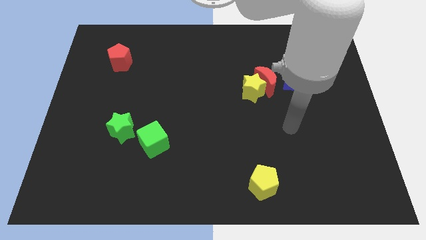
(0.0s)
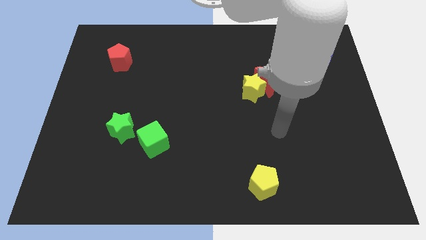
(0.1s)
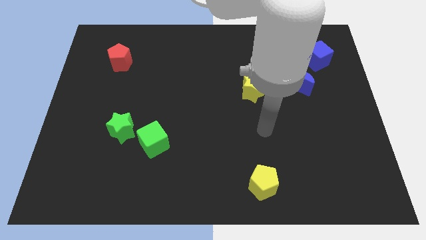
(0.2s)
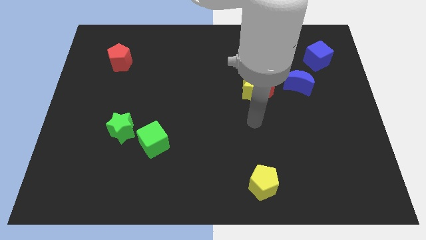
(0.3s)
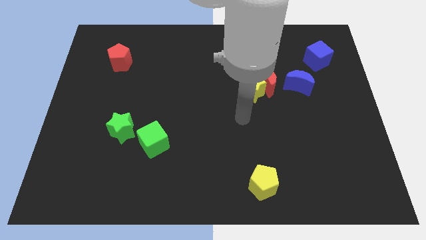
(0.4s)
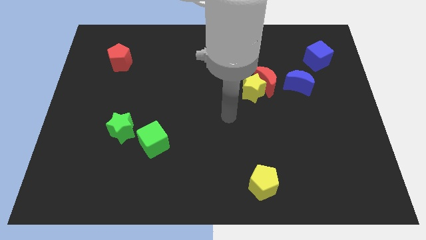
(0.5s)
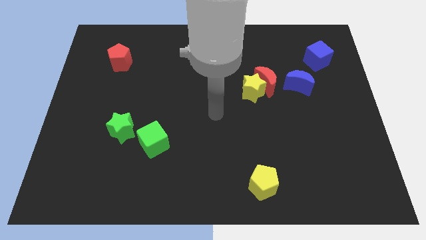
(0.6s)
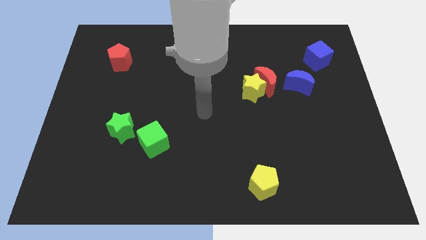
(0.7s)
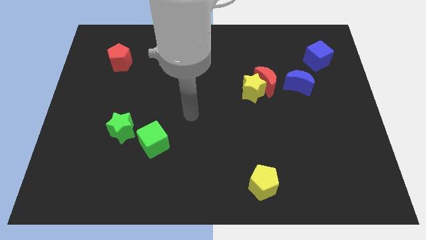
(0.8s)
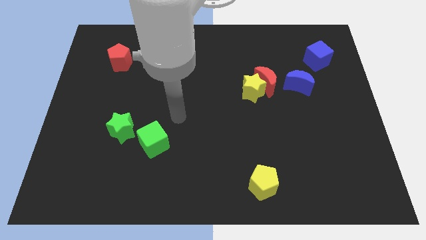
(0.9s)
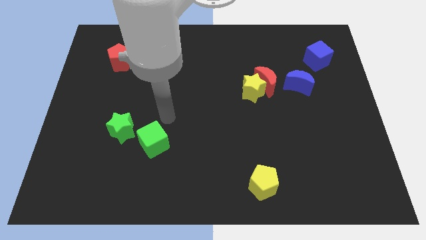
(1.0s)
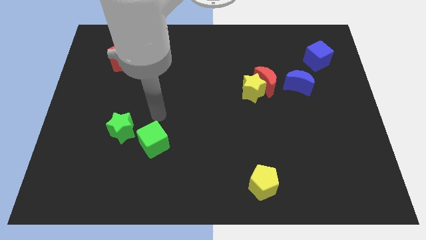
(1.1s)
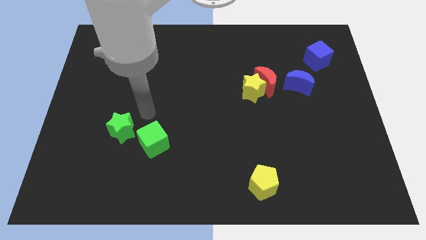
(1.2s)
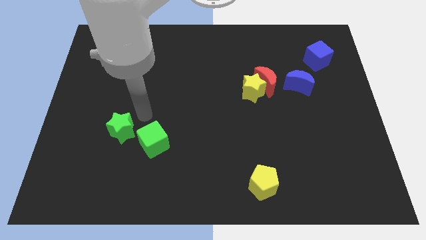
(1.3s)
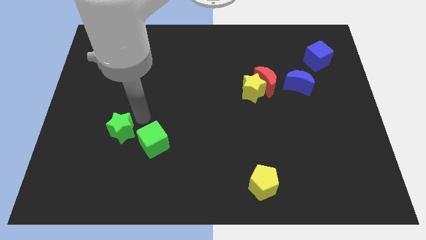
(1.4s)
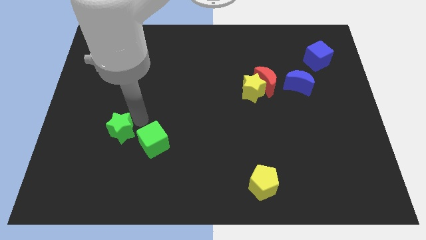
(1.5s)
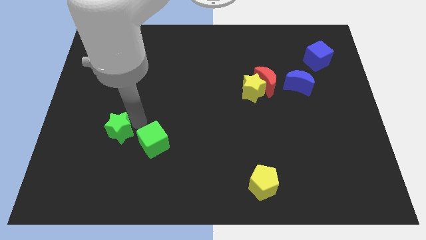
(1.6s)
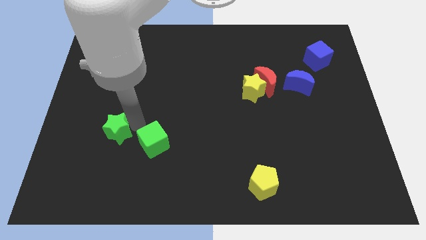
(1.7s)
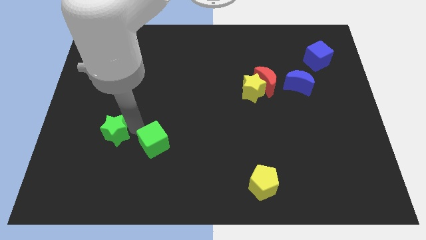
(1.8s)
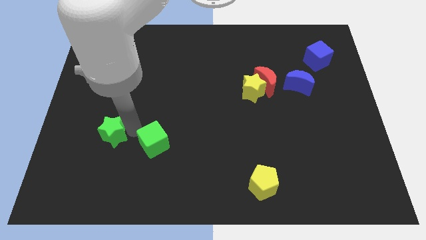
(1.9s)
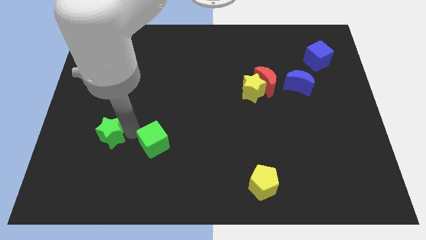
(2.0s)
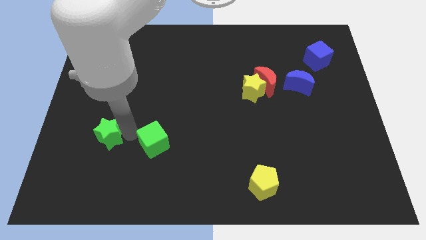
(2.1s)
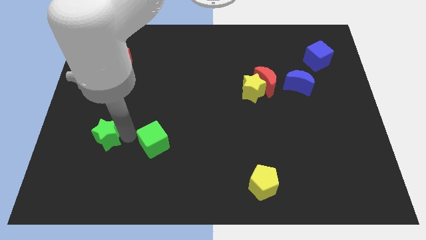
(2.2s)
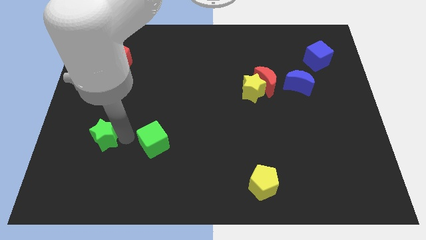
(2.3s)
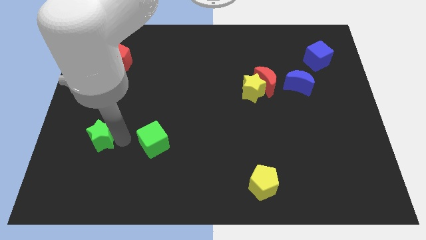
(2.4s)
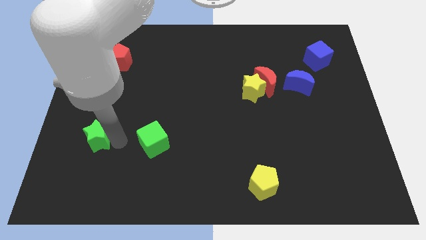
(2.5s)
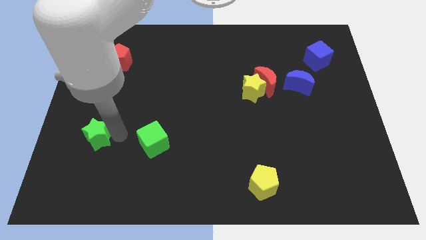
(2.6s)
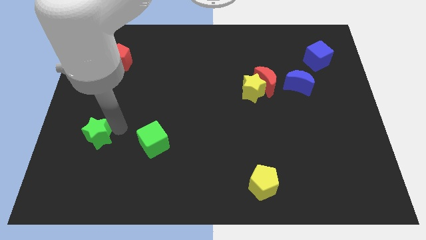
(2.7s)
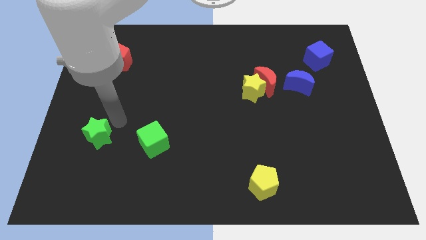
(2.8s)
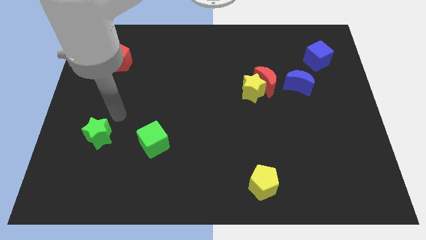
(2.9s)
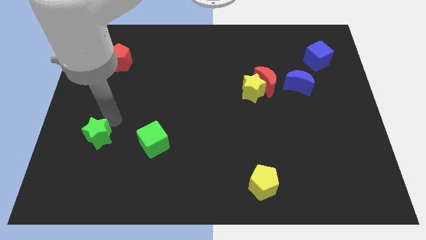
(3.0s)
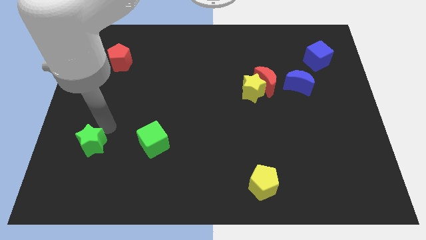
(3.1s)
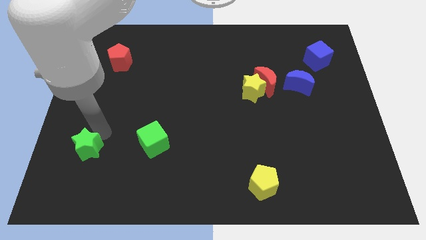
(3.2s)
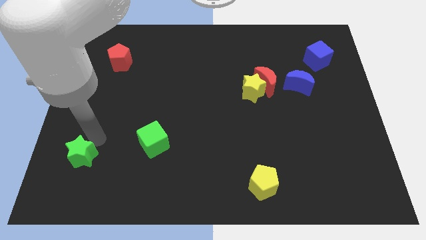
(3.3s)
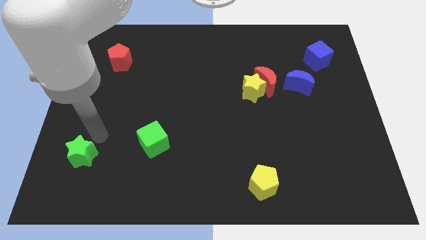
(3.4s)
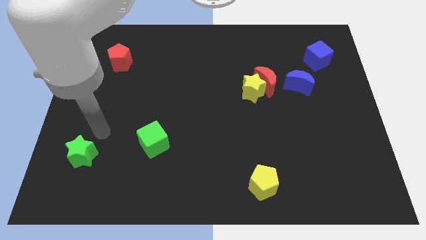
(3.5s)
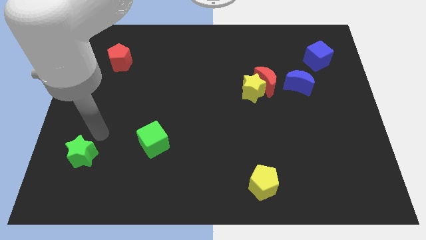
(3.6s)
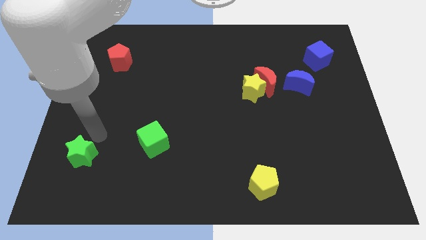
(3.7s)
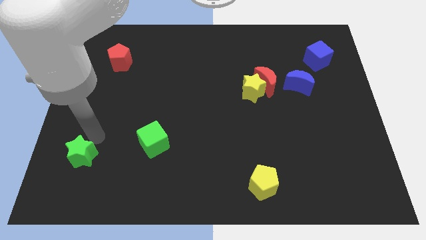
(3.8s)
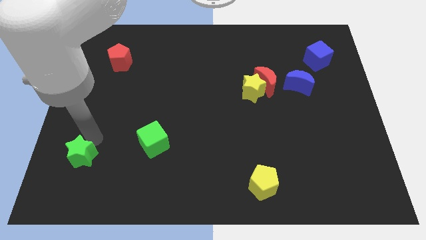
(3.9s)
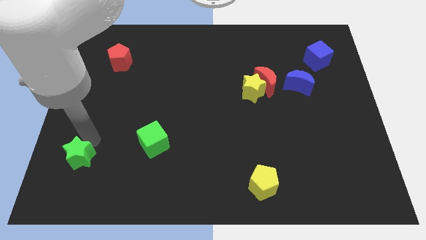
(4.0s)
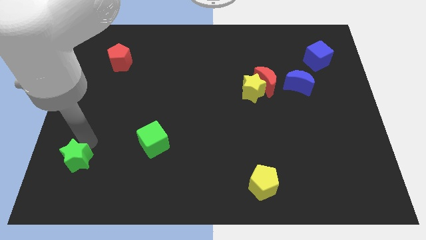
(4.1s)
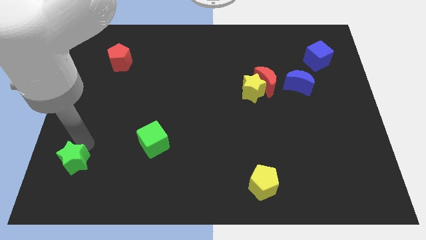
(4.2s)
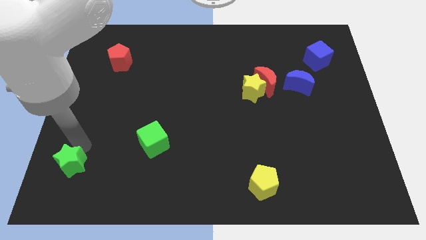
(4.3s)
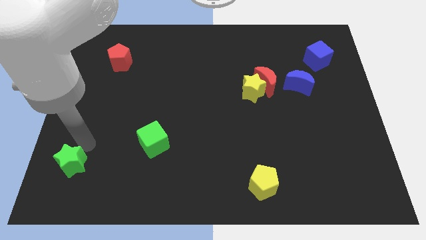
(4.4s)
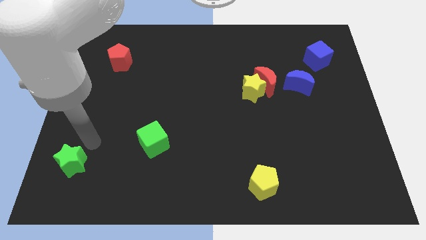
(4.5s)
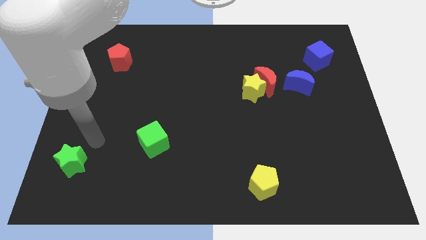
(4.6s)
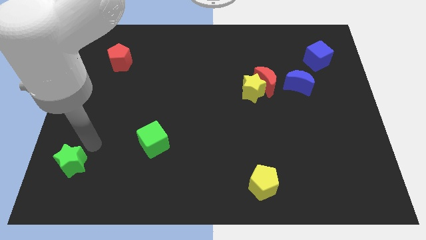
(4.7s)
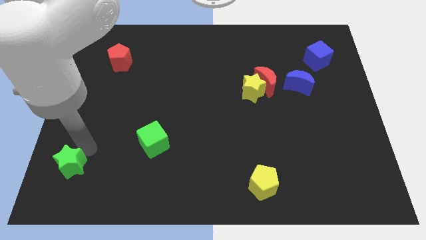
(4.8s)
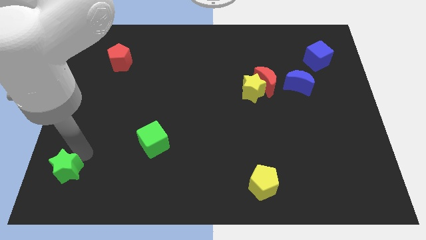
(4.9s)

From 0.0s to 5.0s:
move the green star to the bottom left of the board

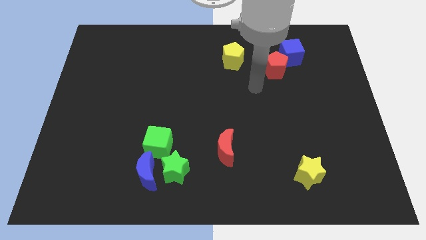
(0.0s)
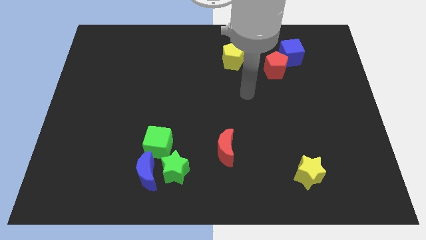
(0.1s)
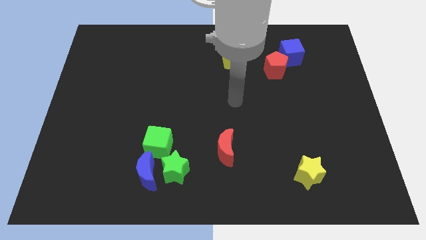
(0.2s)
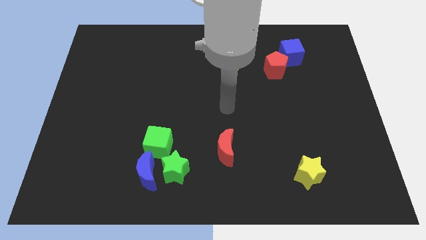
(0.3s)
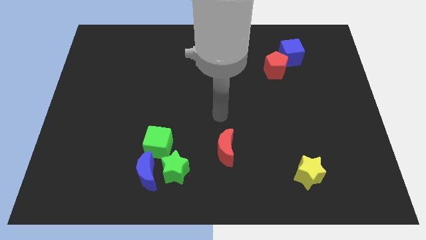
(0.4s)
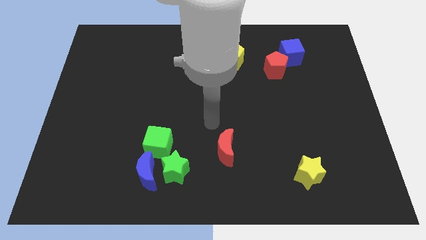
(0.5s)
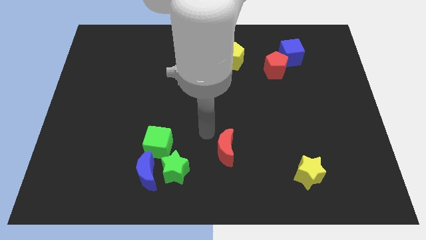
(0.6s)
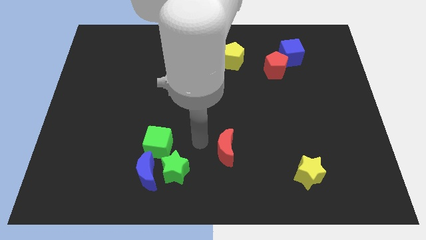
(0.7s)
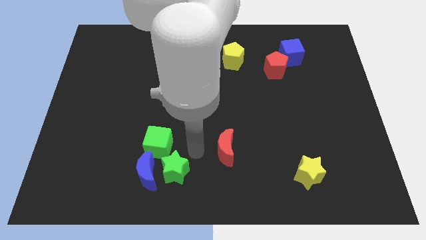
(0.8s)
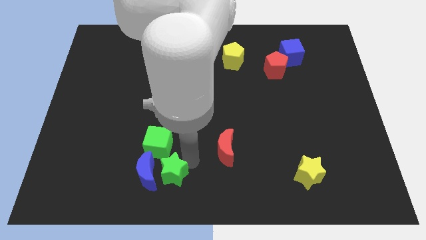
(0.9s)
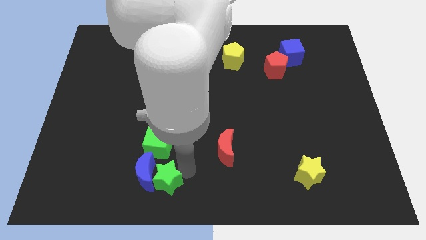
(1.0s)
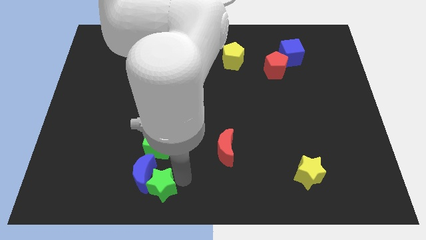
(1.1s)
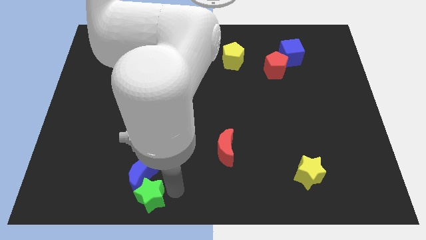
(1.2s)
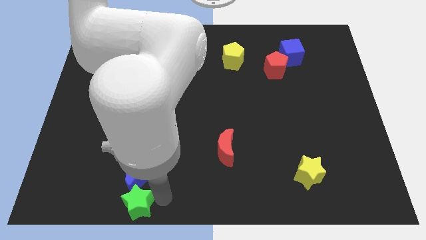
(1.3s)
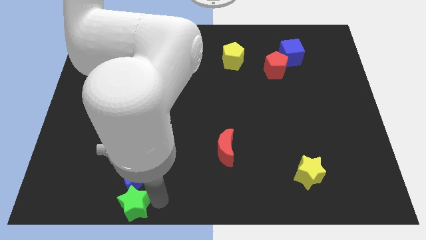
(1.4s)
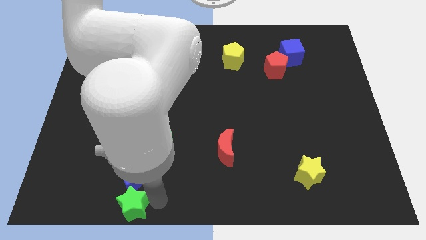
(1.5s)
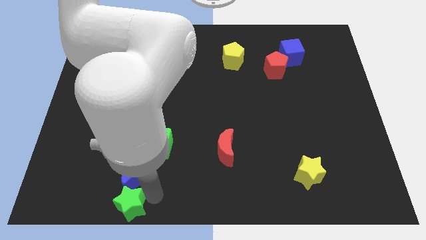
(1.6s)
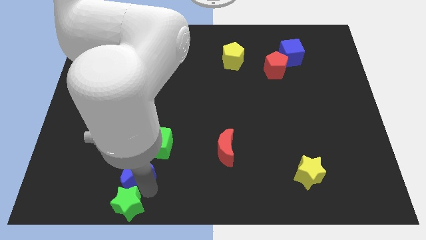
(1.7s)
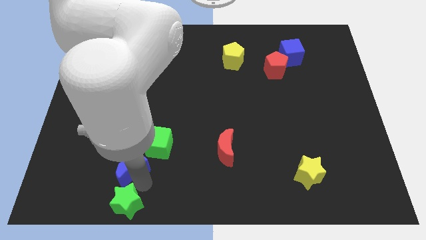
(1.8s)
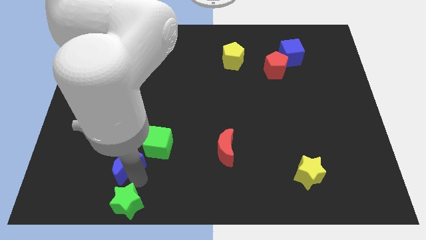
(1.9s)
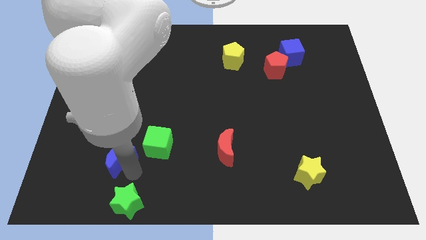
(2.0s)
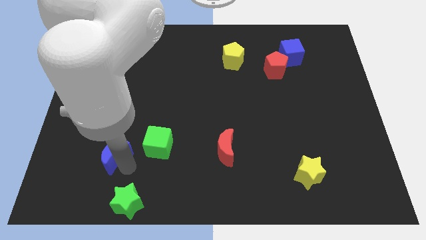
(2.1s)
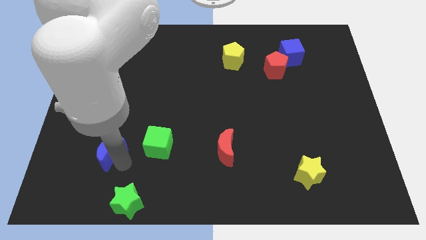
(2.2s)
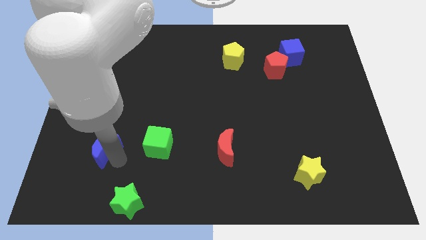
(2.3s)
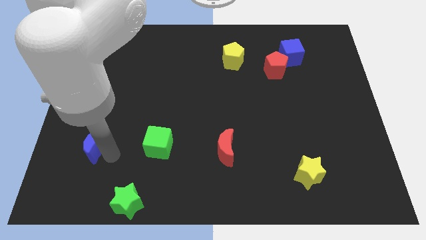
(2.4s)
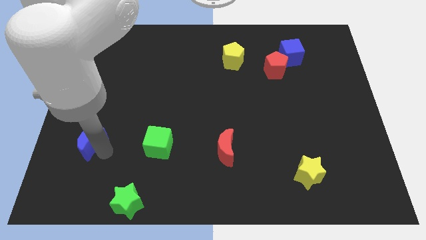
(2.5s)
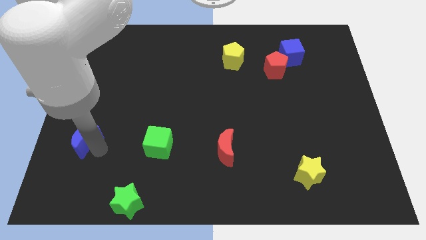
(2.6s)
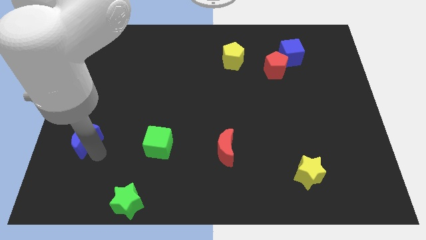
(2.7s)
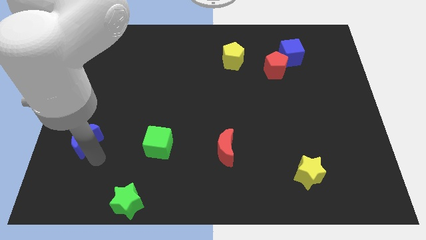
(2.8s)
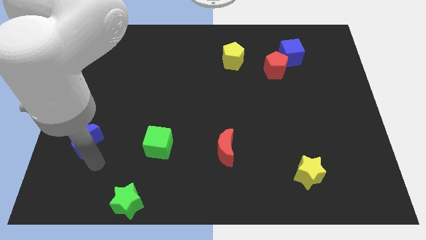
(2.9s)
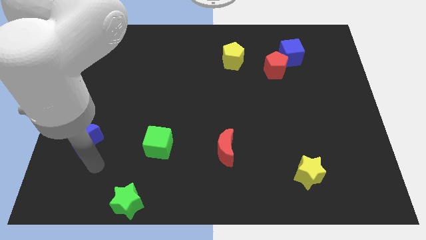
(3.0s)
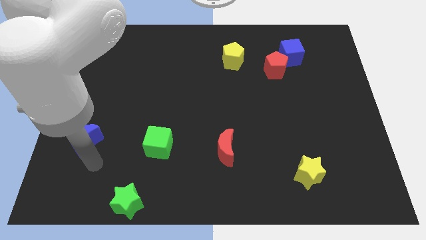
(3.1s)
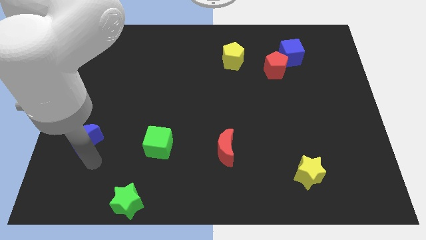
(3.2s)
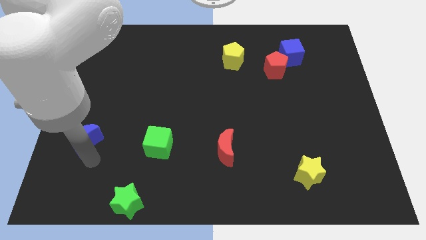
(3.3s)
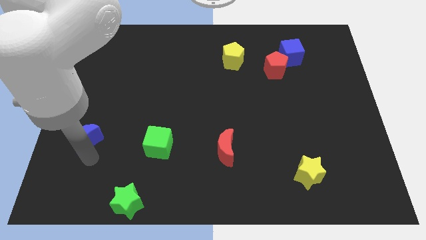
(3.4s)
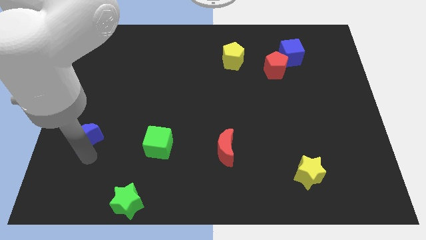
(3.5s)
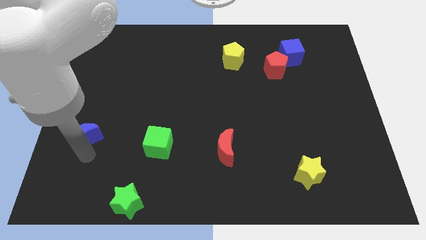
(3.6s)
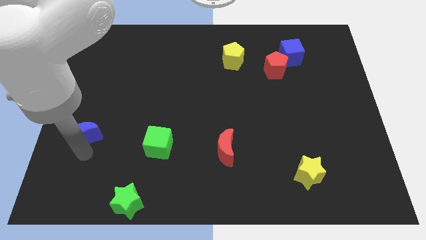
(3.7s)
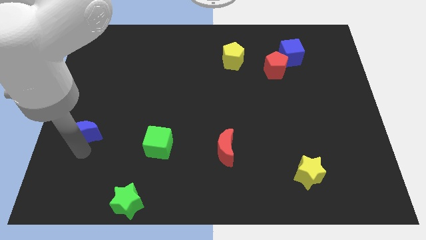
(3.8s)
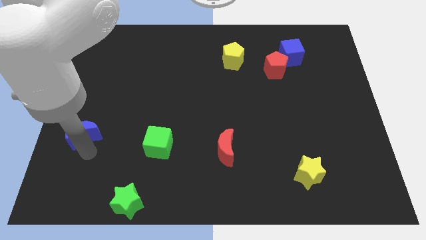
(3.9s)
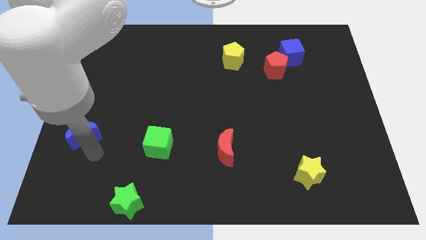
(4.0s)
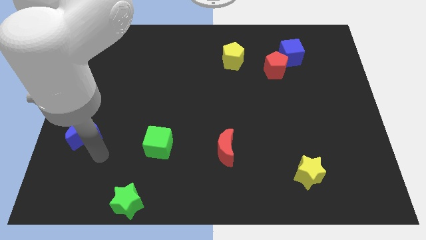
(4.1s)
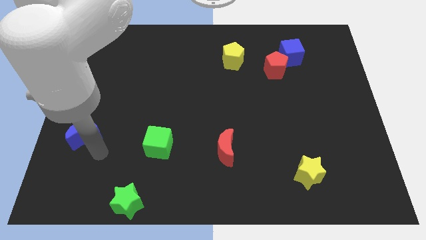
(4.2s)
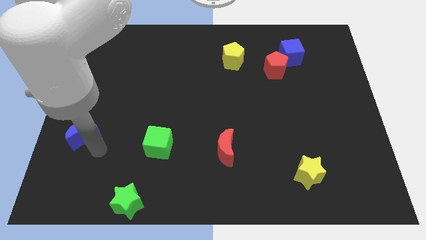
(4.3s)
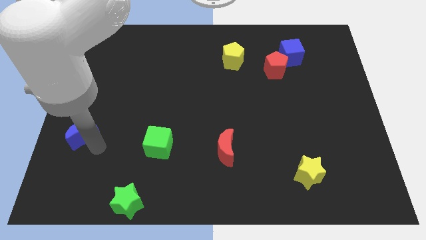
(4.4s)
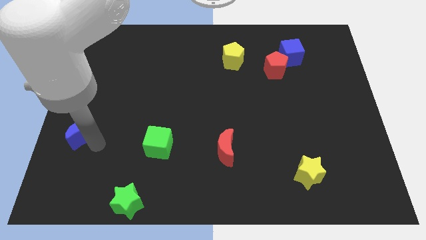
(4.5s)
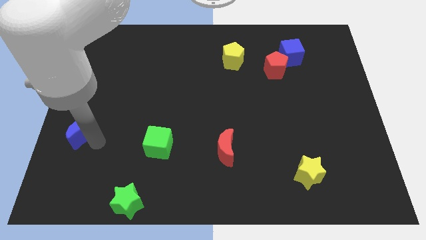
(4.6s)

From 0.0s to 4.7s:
move the blue moon to the left side
